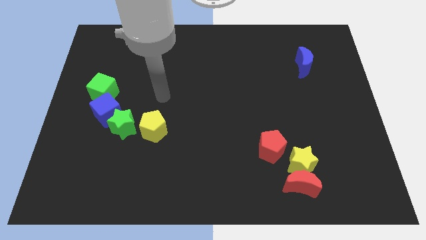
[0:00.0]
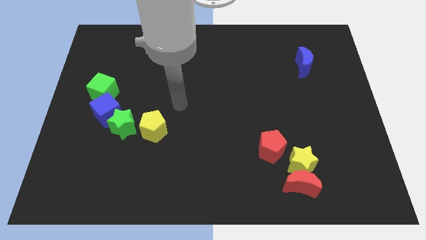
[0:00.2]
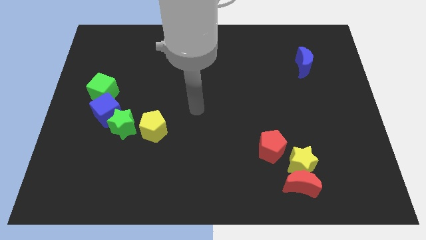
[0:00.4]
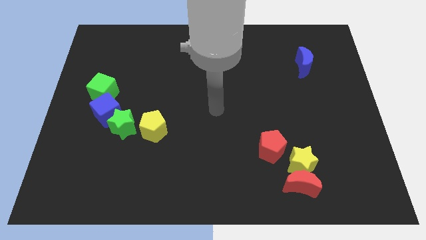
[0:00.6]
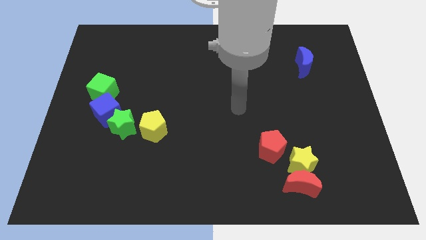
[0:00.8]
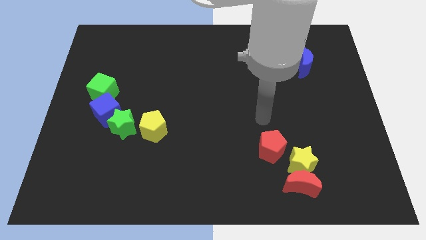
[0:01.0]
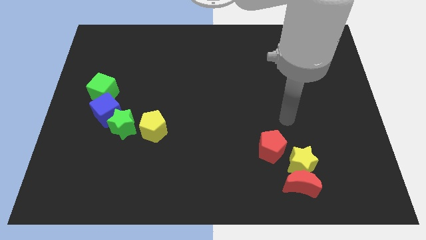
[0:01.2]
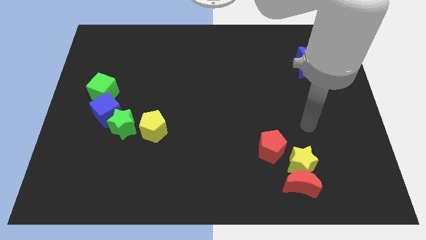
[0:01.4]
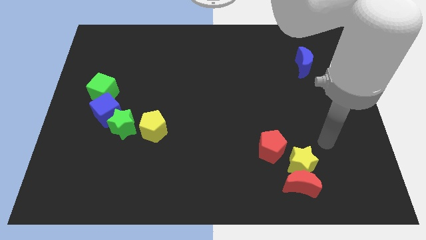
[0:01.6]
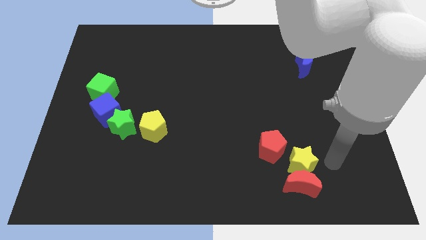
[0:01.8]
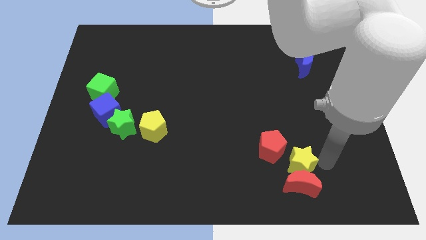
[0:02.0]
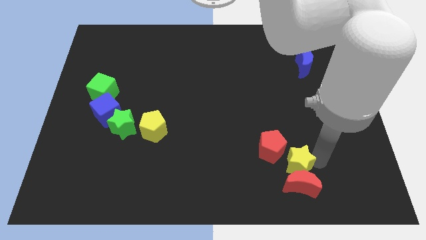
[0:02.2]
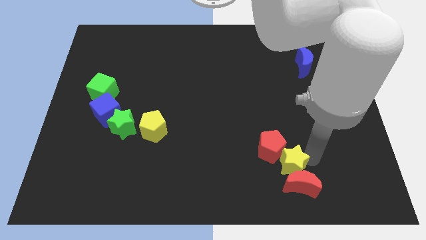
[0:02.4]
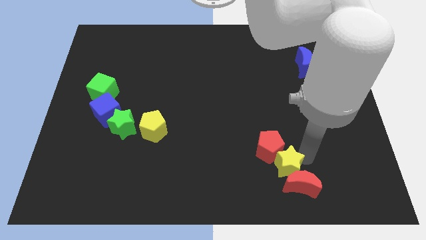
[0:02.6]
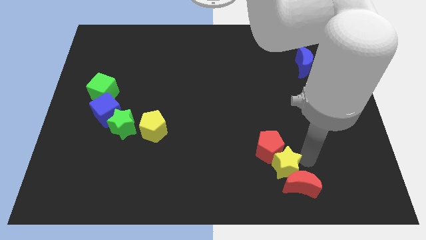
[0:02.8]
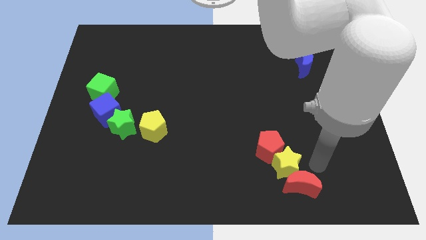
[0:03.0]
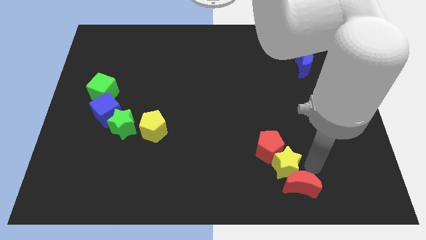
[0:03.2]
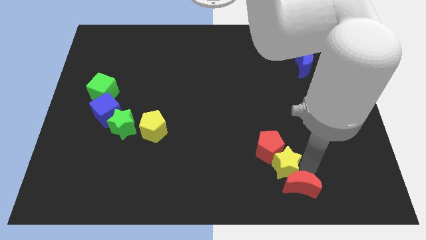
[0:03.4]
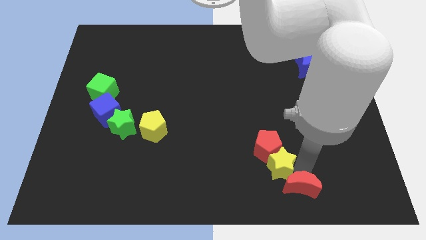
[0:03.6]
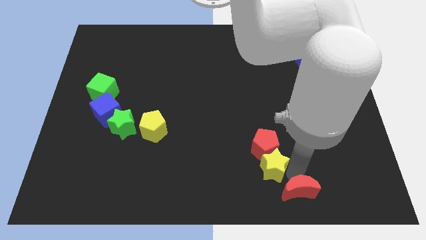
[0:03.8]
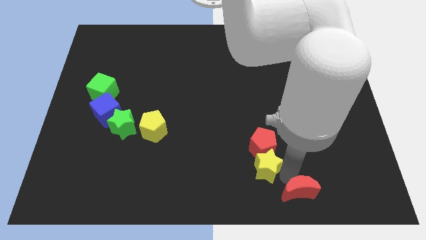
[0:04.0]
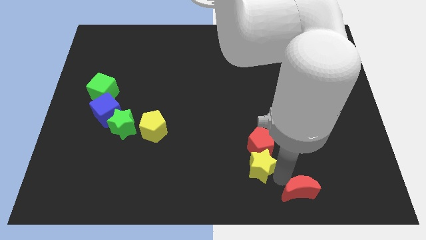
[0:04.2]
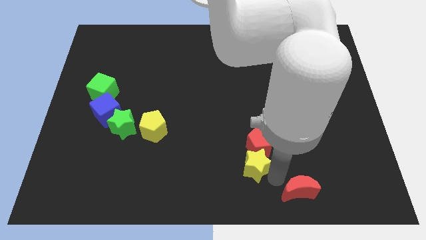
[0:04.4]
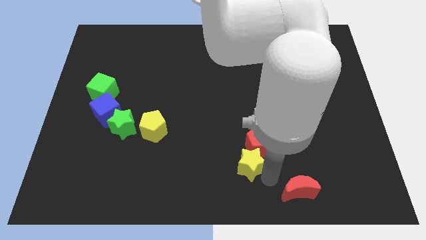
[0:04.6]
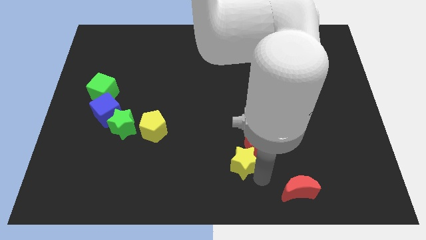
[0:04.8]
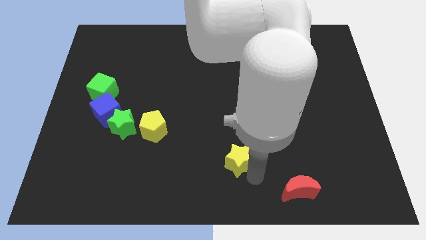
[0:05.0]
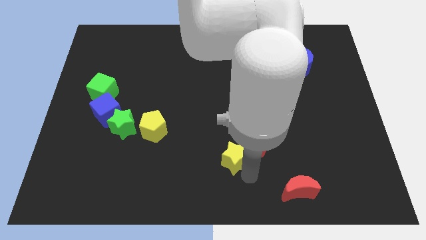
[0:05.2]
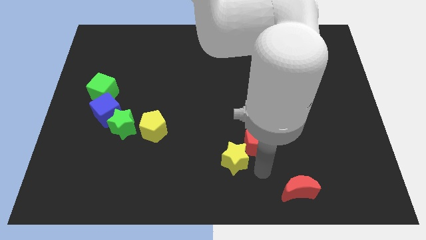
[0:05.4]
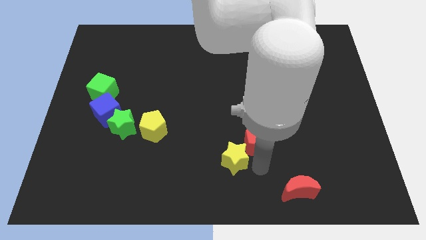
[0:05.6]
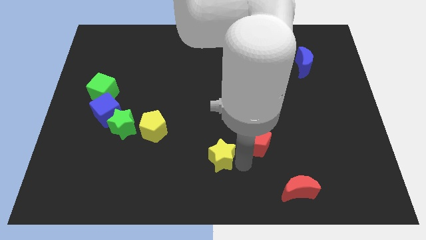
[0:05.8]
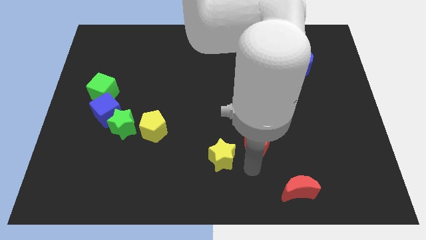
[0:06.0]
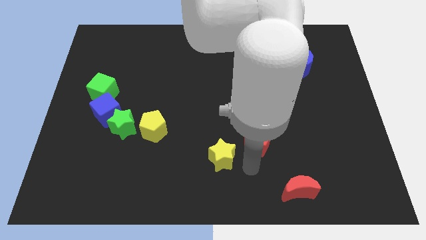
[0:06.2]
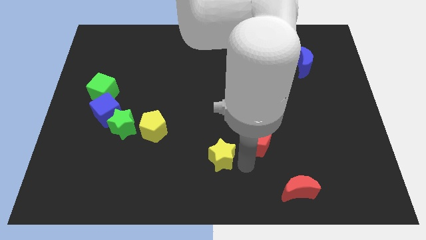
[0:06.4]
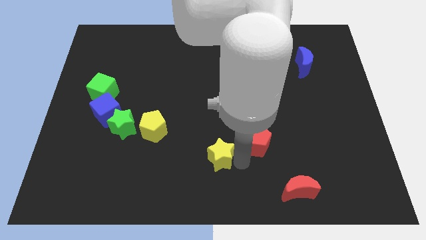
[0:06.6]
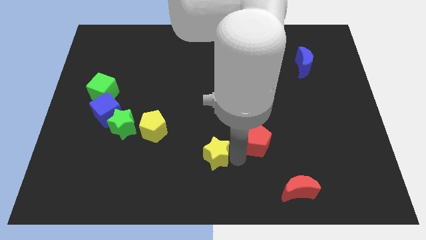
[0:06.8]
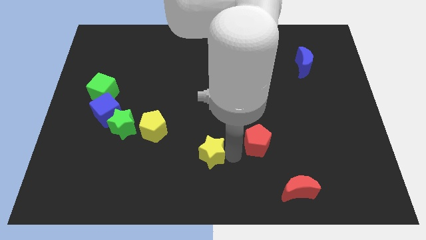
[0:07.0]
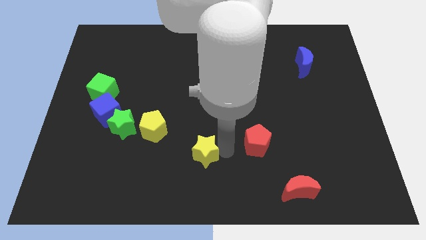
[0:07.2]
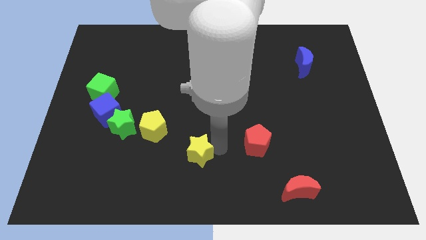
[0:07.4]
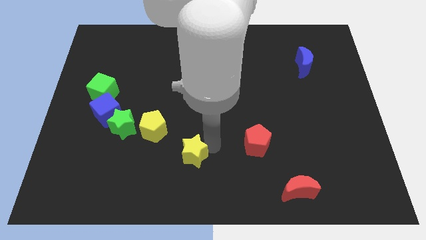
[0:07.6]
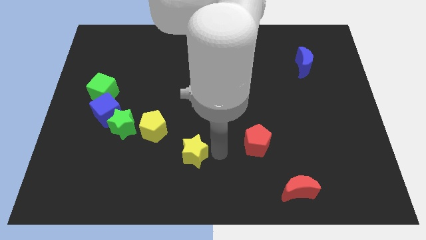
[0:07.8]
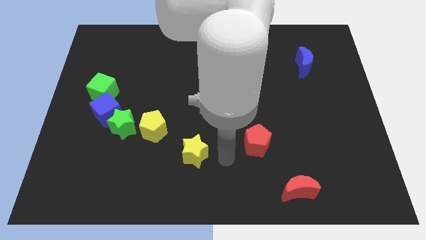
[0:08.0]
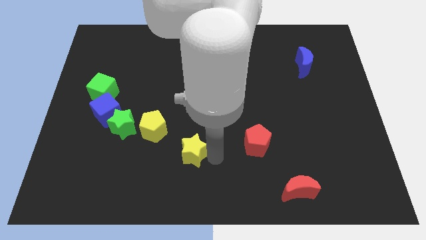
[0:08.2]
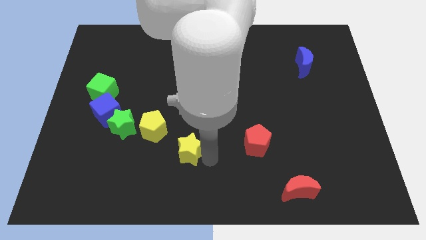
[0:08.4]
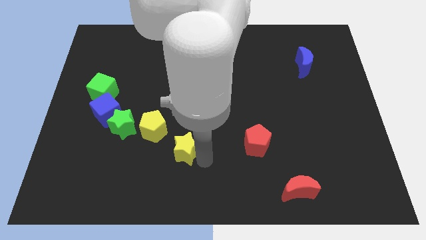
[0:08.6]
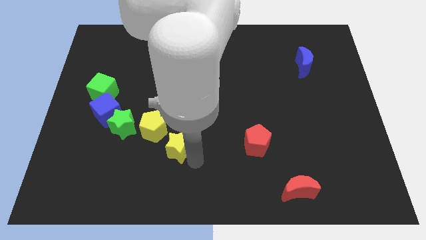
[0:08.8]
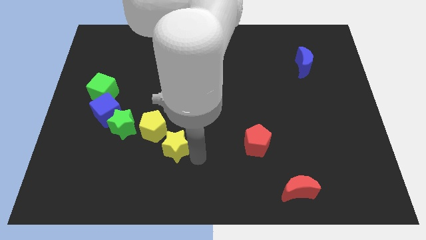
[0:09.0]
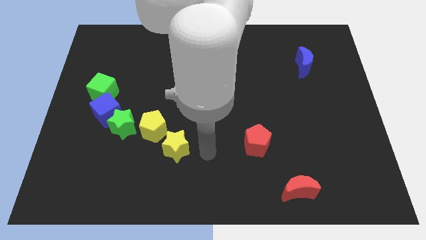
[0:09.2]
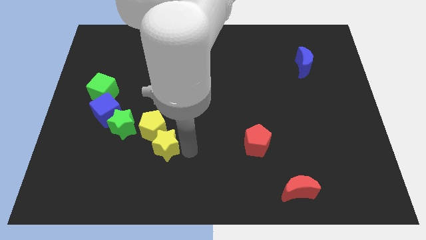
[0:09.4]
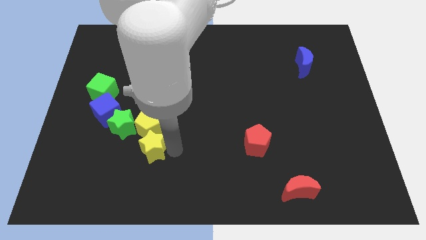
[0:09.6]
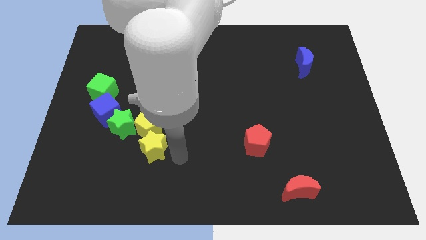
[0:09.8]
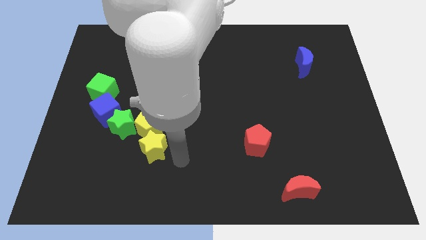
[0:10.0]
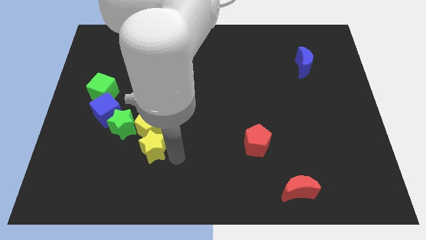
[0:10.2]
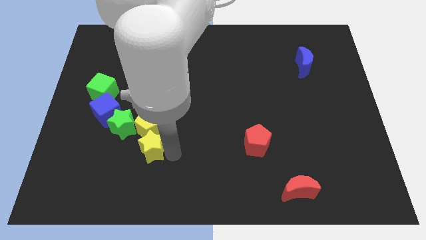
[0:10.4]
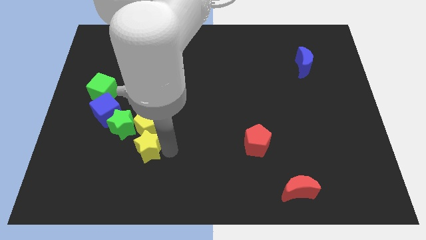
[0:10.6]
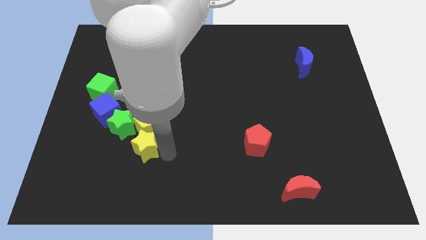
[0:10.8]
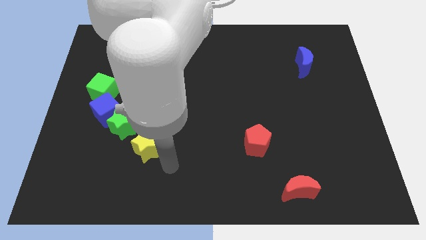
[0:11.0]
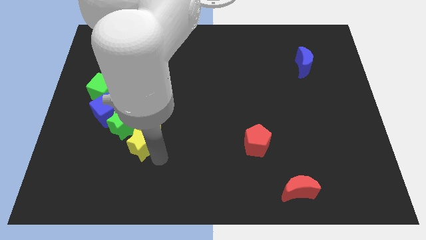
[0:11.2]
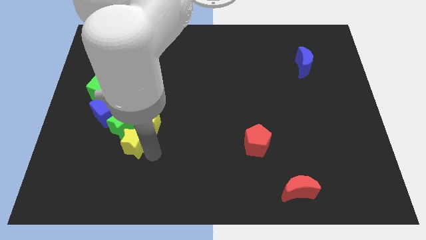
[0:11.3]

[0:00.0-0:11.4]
slide the yellow star to the bottom right side of the blue cube

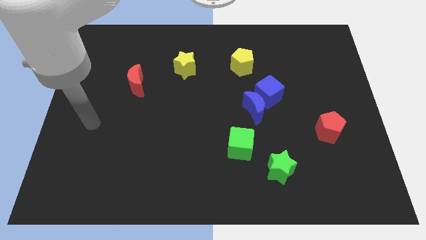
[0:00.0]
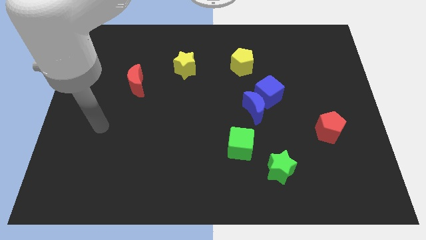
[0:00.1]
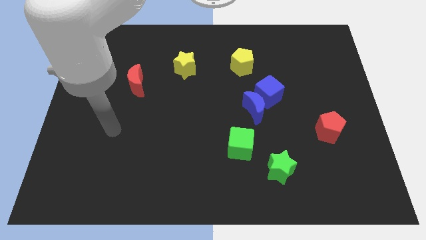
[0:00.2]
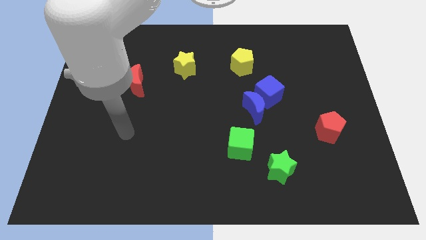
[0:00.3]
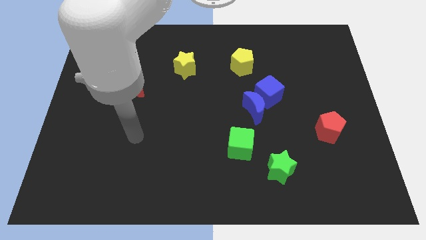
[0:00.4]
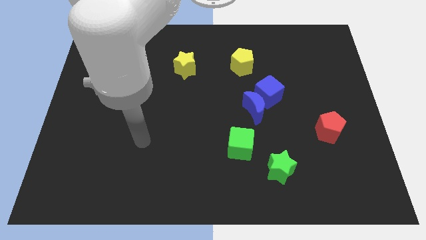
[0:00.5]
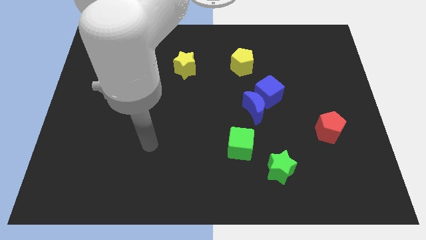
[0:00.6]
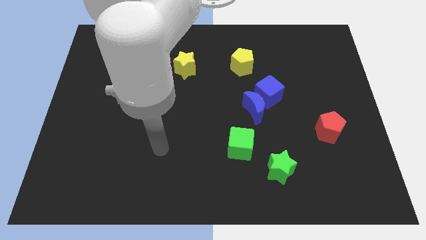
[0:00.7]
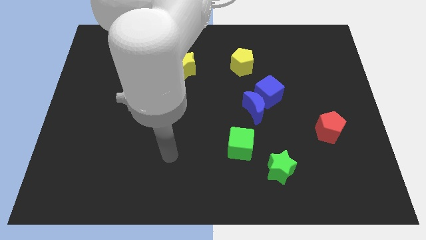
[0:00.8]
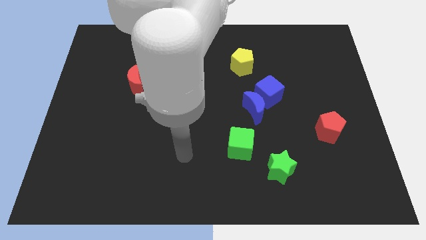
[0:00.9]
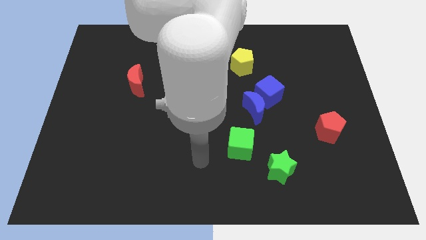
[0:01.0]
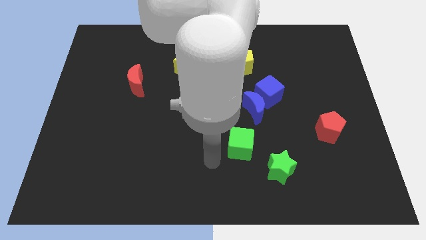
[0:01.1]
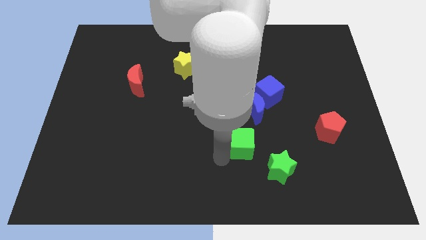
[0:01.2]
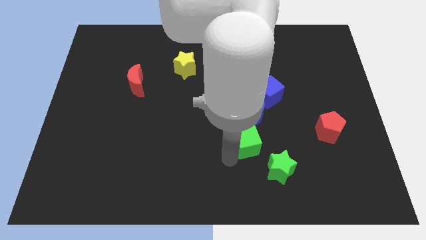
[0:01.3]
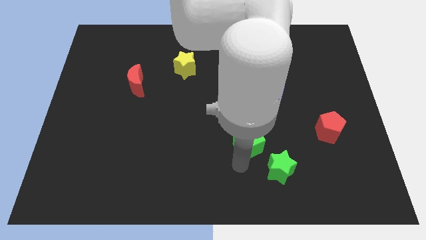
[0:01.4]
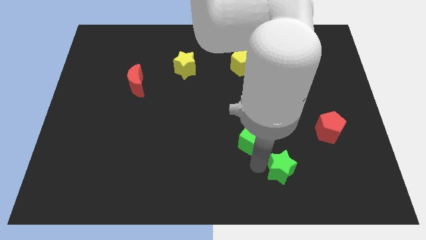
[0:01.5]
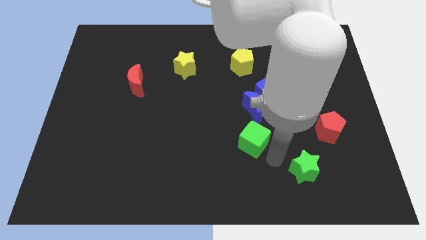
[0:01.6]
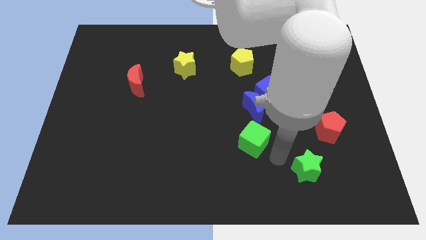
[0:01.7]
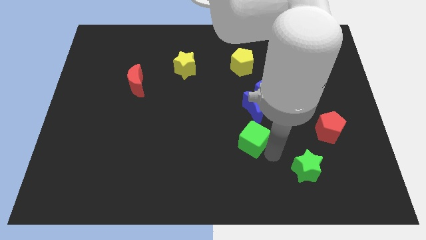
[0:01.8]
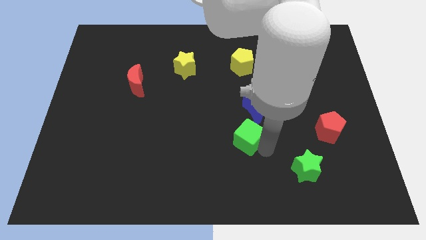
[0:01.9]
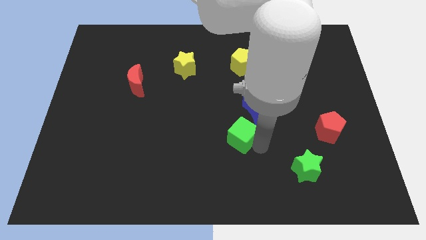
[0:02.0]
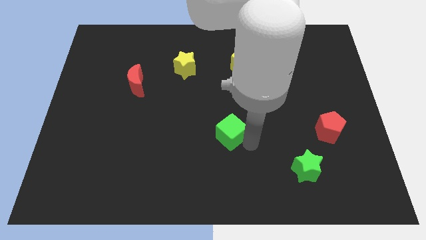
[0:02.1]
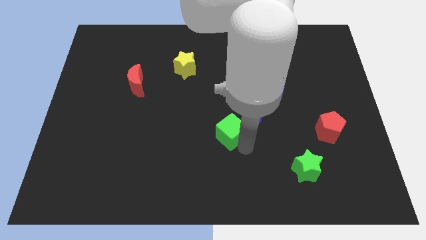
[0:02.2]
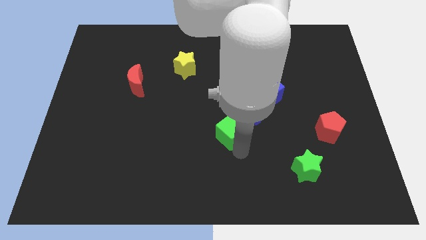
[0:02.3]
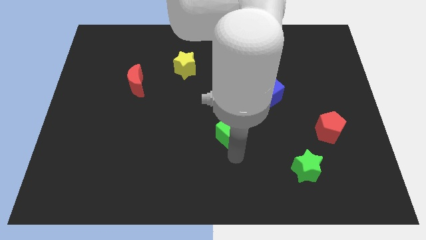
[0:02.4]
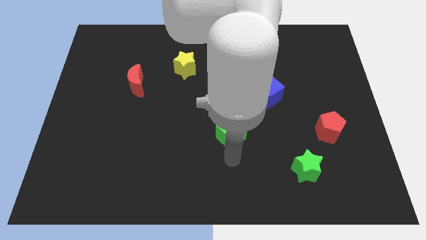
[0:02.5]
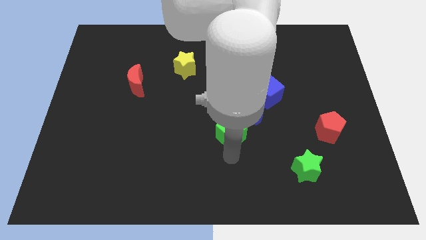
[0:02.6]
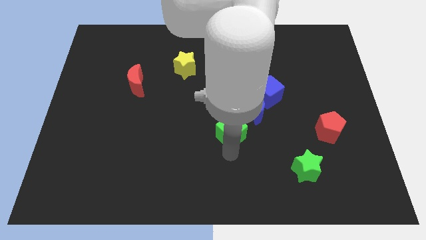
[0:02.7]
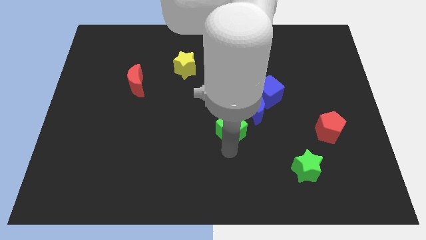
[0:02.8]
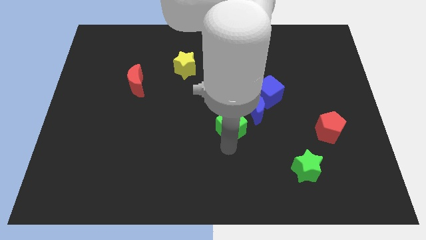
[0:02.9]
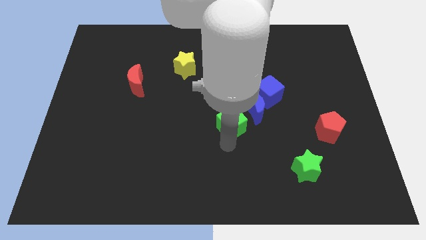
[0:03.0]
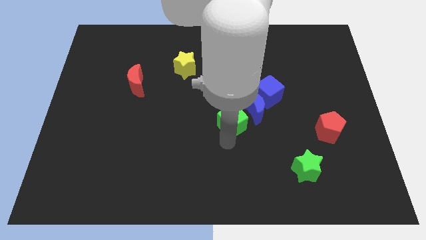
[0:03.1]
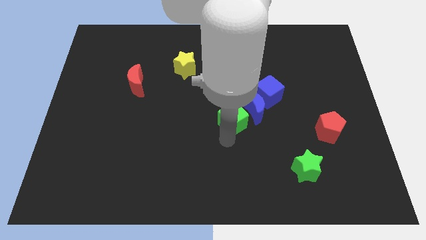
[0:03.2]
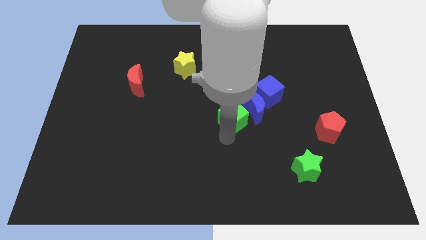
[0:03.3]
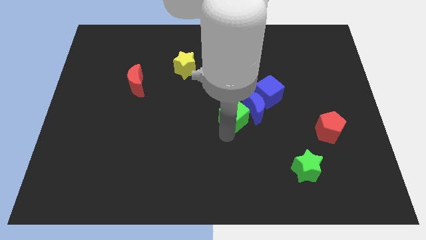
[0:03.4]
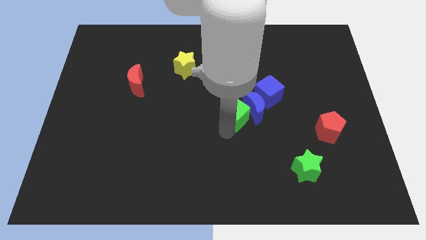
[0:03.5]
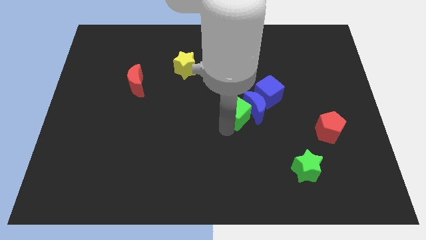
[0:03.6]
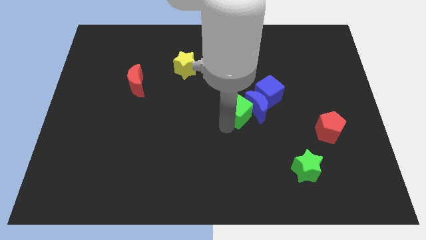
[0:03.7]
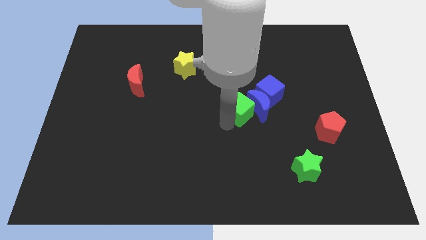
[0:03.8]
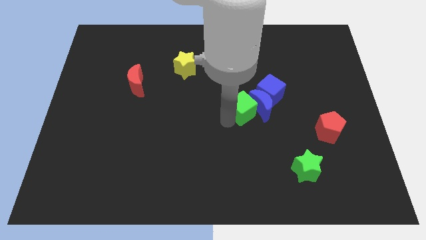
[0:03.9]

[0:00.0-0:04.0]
slide the green cube to the left of the blue cube
